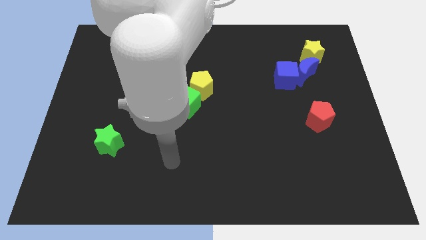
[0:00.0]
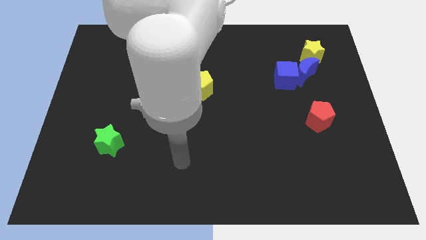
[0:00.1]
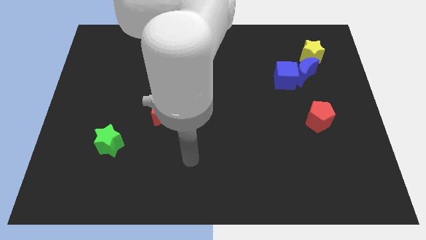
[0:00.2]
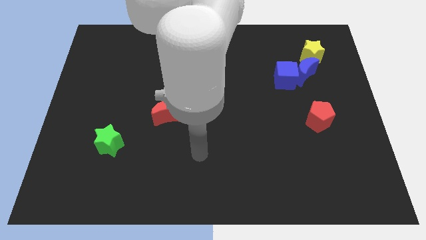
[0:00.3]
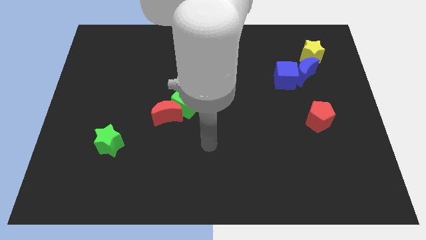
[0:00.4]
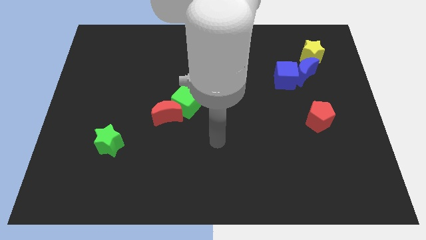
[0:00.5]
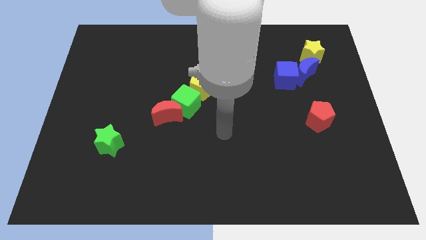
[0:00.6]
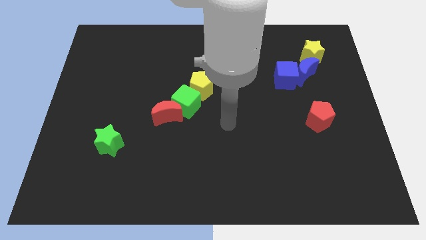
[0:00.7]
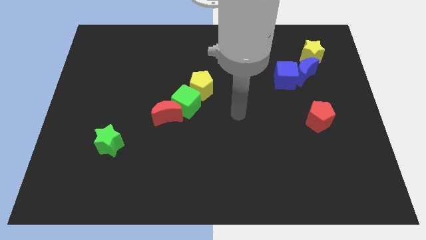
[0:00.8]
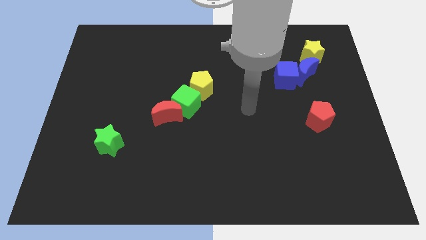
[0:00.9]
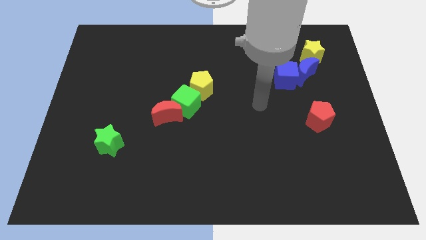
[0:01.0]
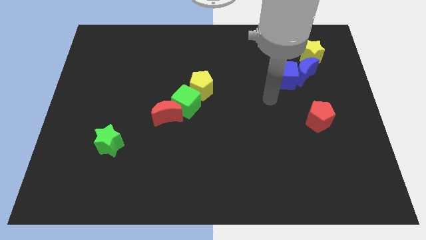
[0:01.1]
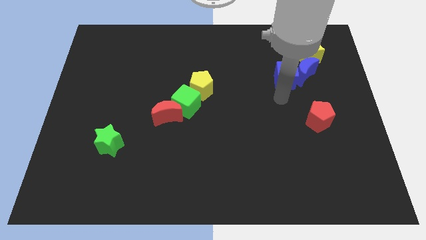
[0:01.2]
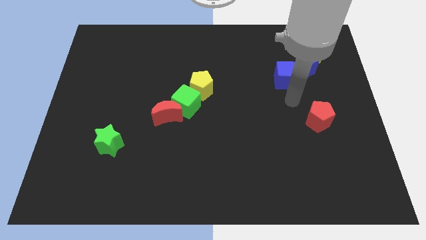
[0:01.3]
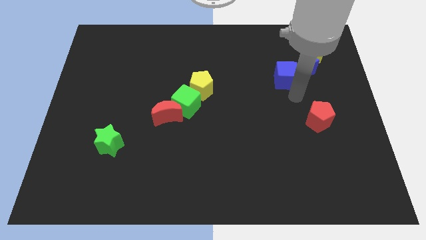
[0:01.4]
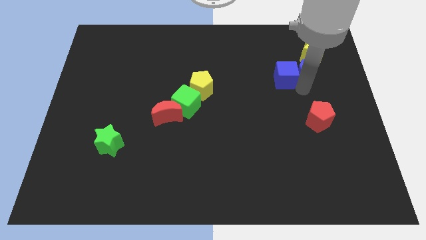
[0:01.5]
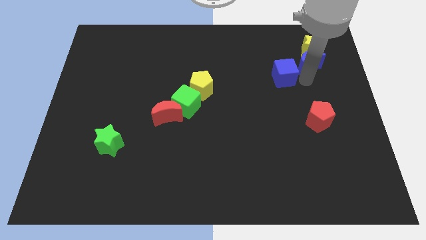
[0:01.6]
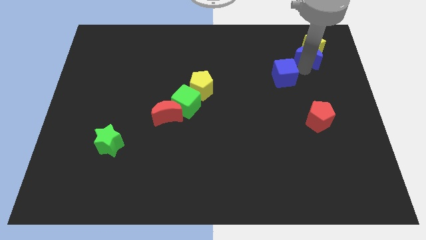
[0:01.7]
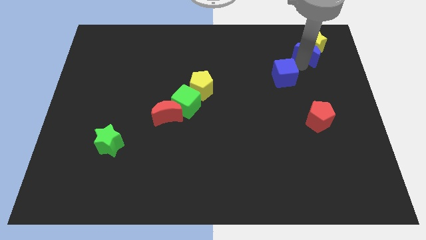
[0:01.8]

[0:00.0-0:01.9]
move the blue cube away from the blue moon

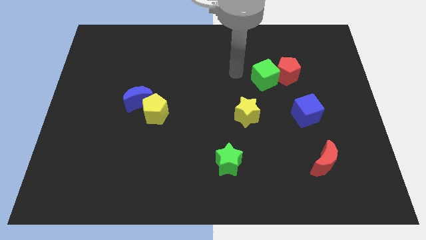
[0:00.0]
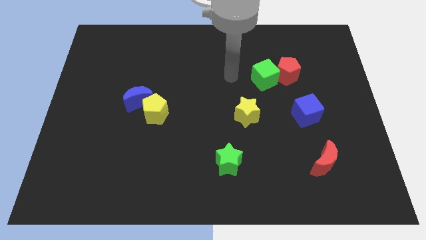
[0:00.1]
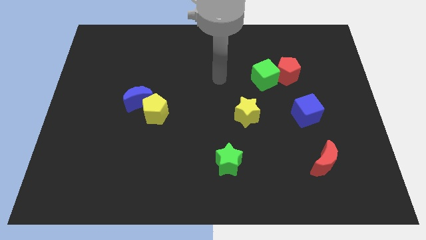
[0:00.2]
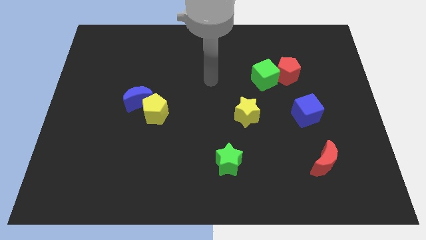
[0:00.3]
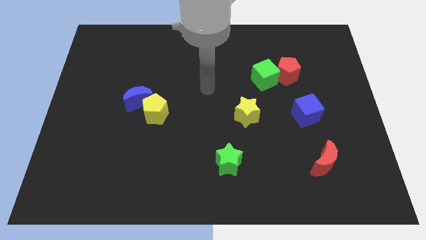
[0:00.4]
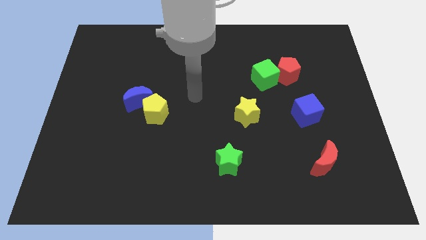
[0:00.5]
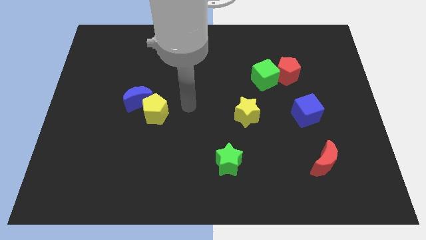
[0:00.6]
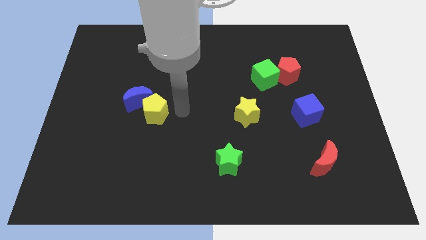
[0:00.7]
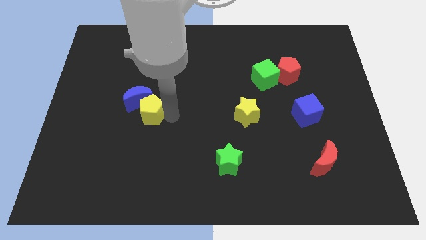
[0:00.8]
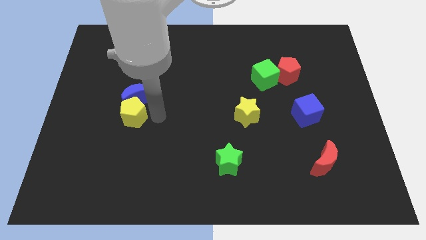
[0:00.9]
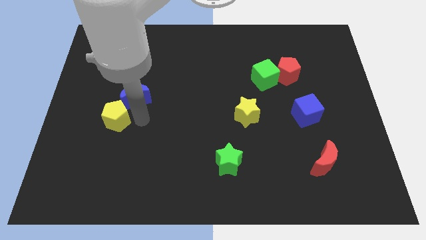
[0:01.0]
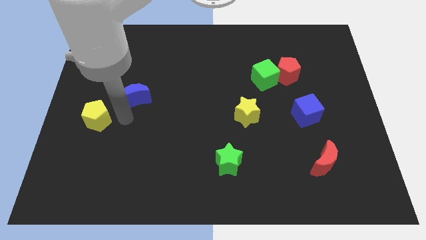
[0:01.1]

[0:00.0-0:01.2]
move the blue moon away from the yellow pentagon

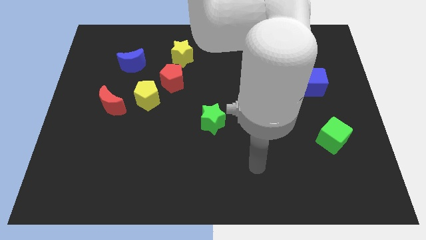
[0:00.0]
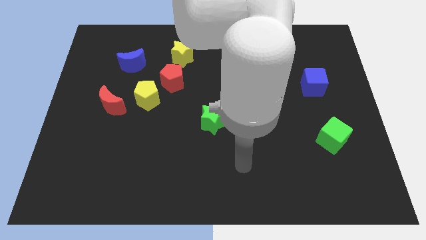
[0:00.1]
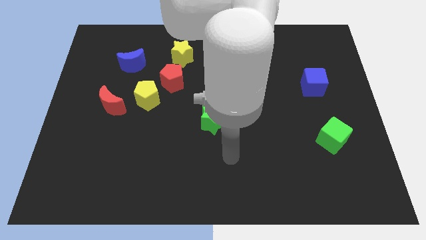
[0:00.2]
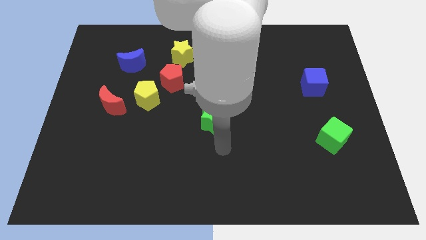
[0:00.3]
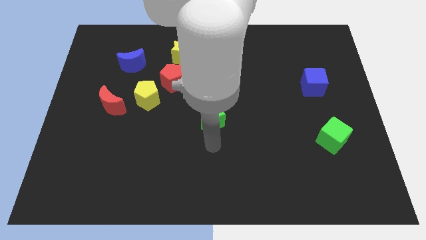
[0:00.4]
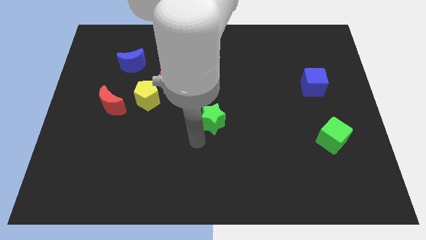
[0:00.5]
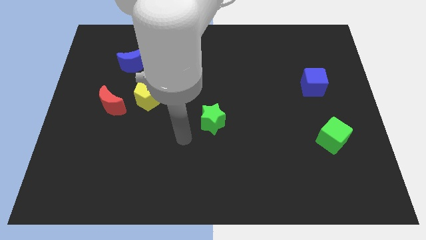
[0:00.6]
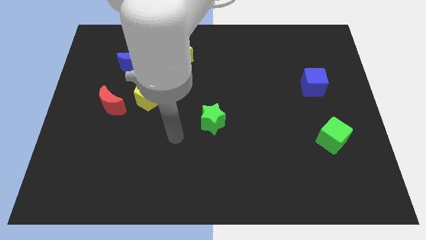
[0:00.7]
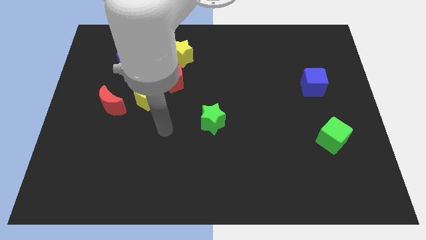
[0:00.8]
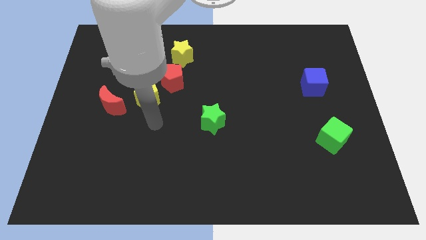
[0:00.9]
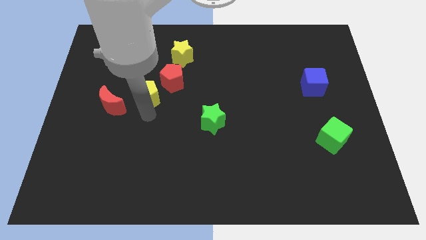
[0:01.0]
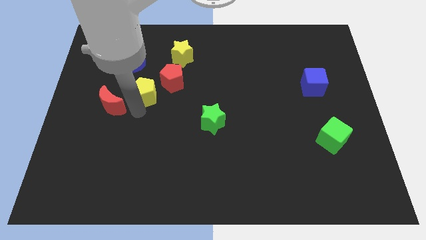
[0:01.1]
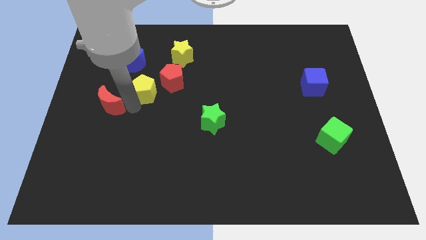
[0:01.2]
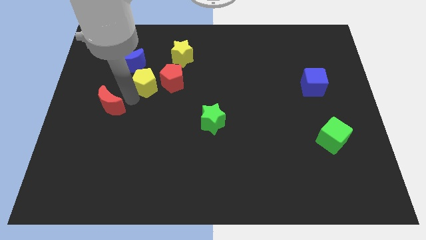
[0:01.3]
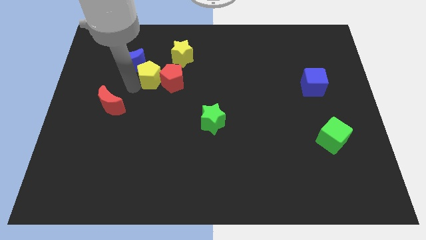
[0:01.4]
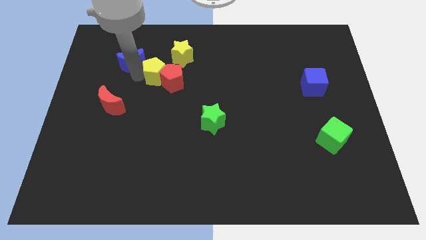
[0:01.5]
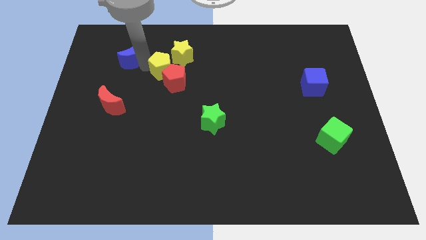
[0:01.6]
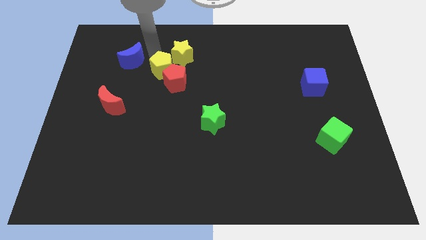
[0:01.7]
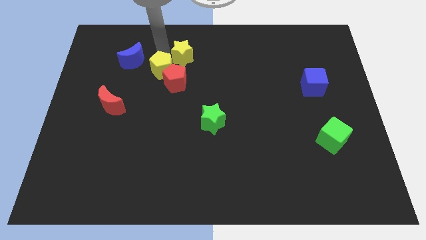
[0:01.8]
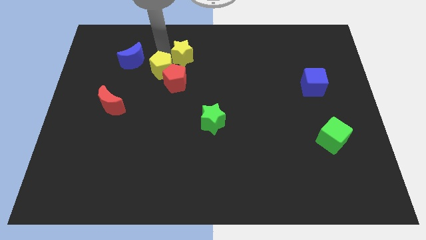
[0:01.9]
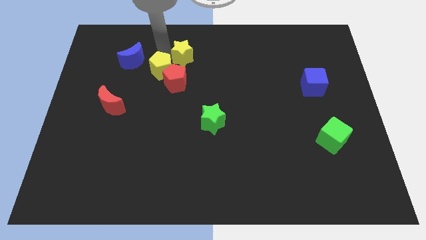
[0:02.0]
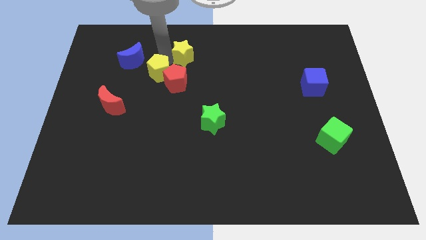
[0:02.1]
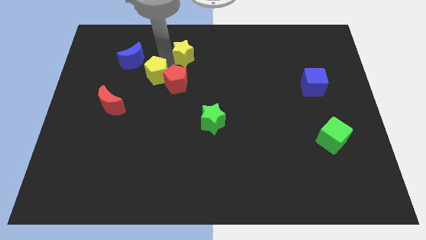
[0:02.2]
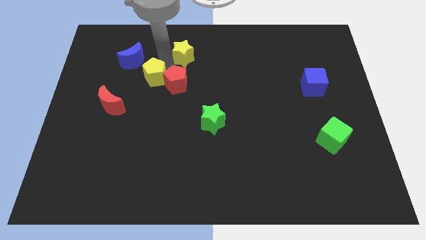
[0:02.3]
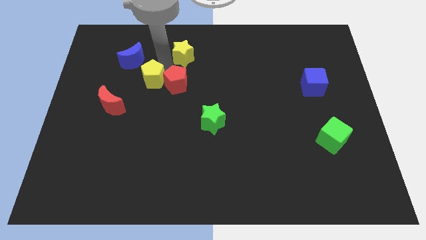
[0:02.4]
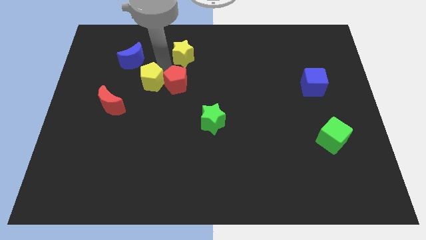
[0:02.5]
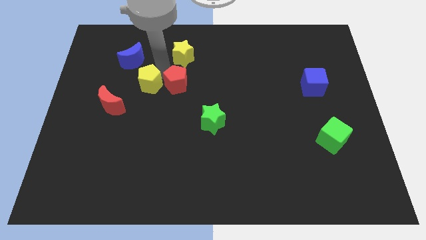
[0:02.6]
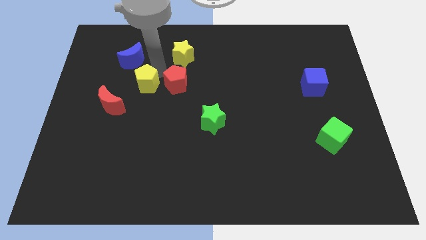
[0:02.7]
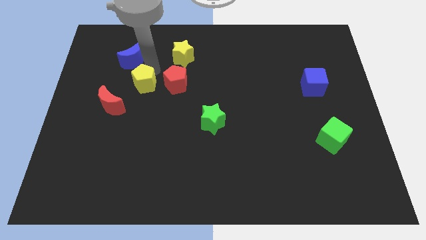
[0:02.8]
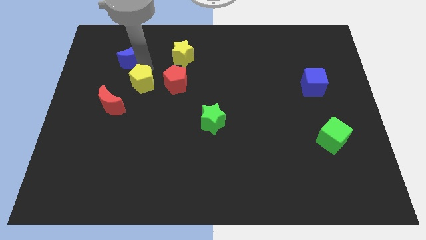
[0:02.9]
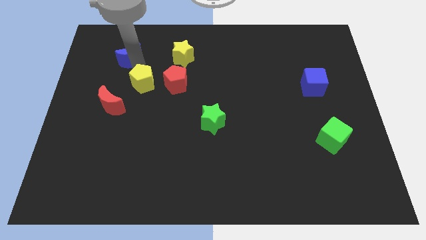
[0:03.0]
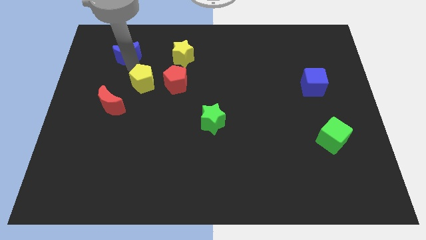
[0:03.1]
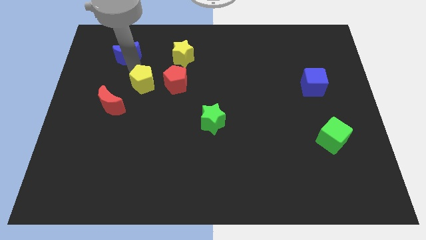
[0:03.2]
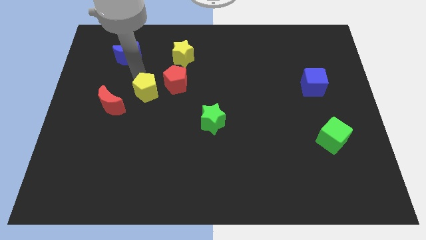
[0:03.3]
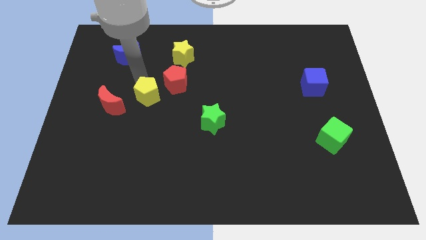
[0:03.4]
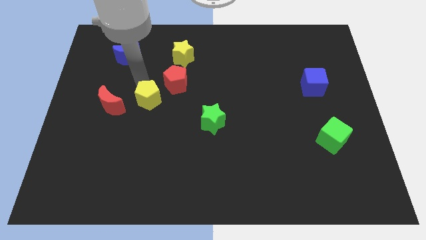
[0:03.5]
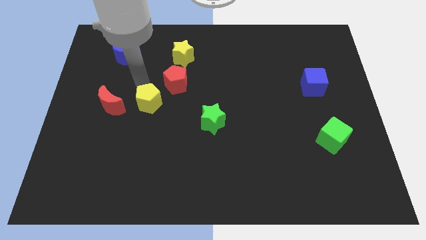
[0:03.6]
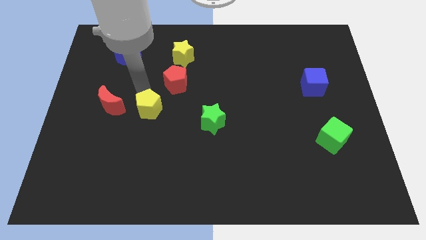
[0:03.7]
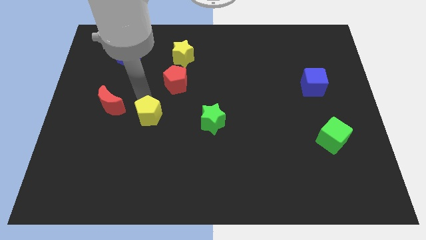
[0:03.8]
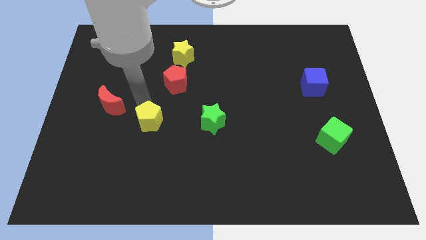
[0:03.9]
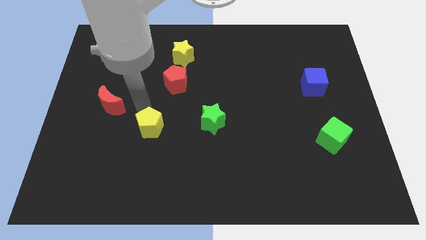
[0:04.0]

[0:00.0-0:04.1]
move the yellow pentagon away from the red pentagon and red moon

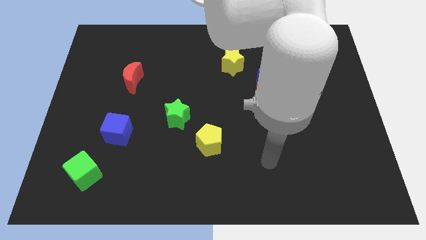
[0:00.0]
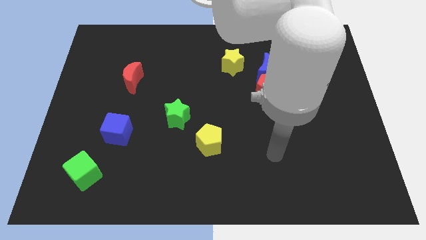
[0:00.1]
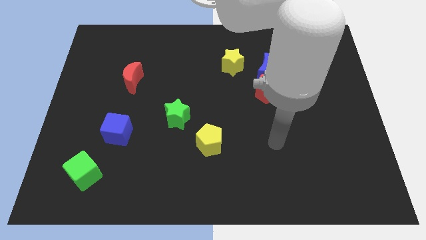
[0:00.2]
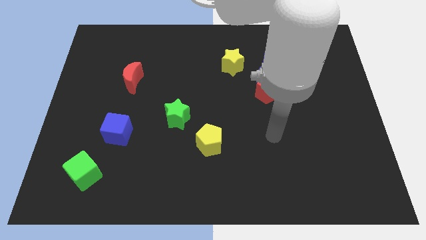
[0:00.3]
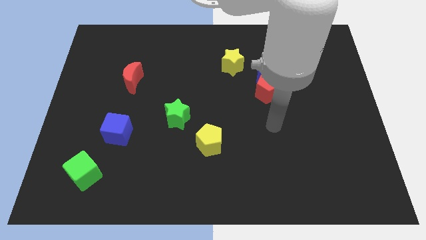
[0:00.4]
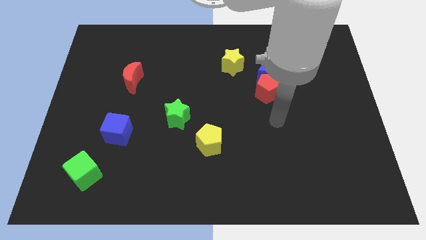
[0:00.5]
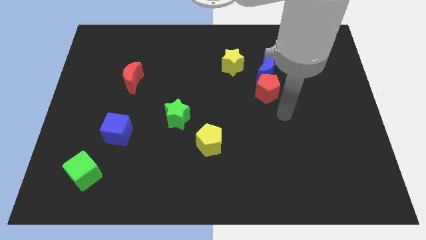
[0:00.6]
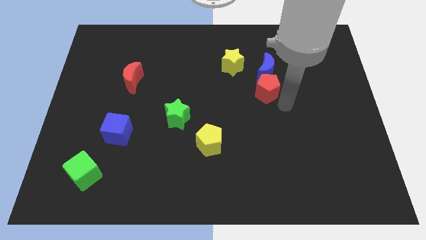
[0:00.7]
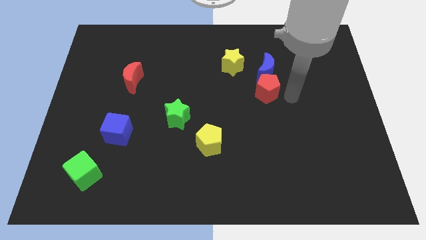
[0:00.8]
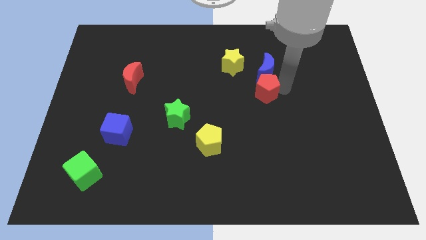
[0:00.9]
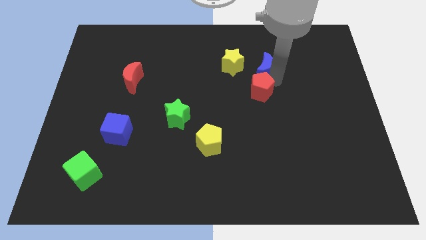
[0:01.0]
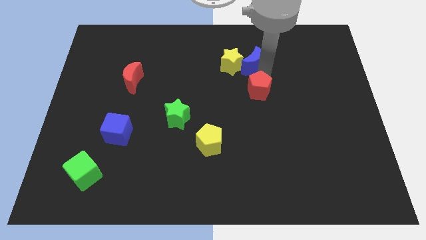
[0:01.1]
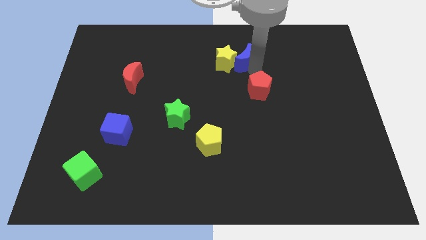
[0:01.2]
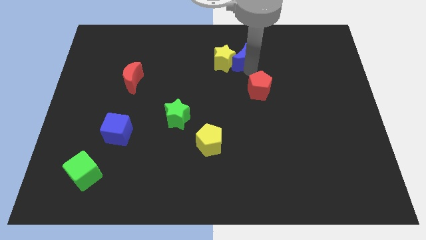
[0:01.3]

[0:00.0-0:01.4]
move the red pentagon away from the blue moon

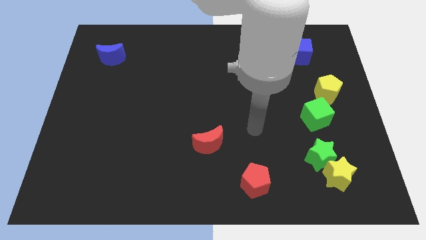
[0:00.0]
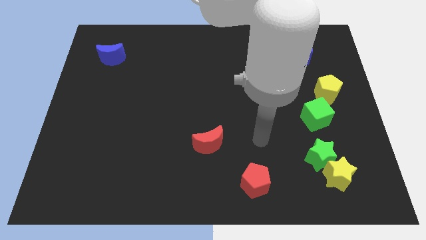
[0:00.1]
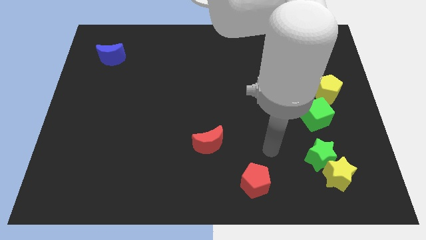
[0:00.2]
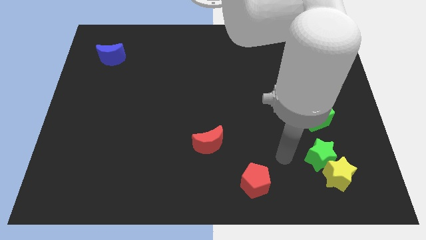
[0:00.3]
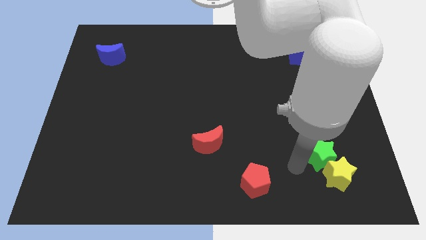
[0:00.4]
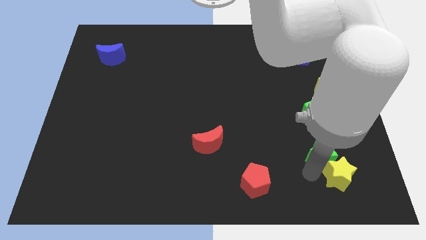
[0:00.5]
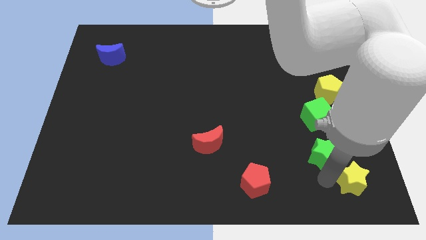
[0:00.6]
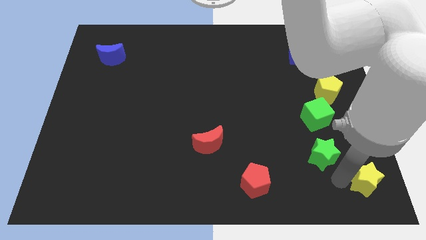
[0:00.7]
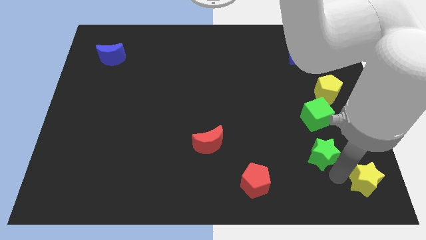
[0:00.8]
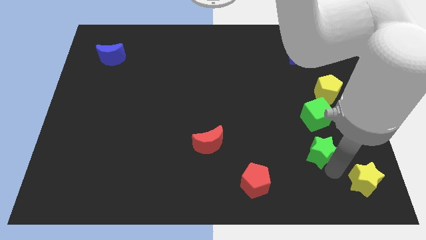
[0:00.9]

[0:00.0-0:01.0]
separate the green star from the yellow star
